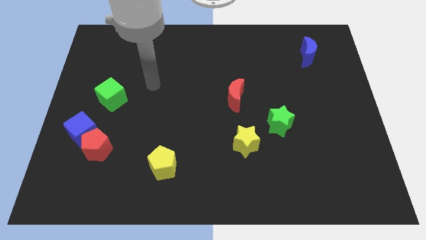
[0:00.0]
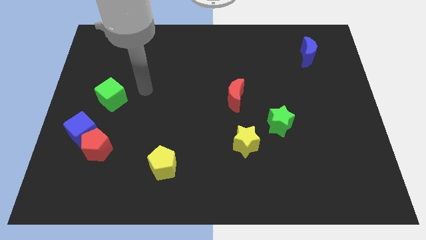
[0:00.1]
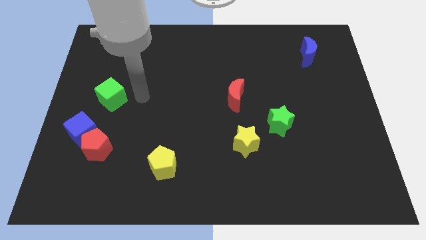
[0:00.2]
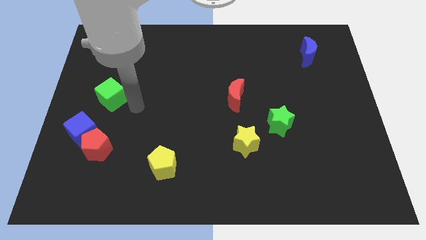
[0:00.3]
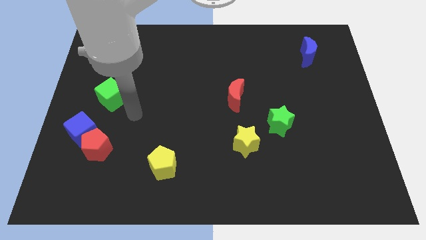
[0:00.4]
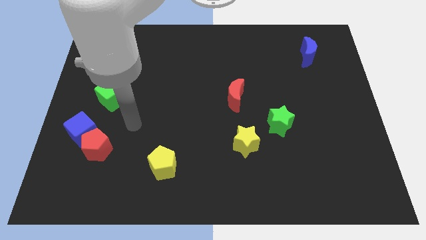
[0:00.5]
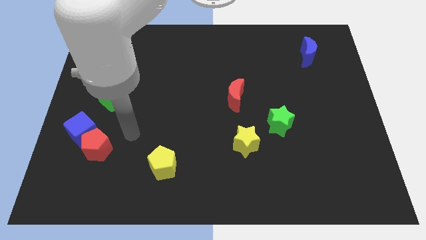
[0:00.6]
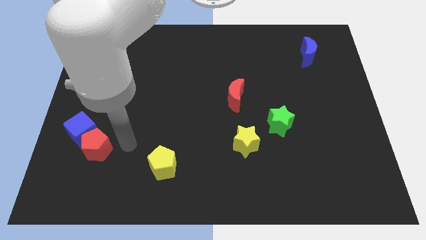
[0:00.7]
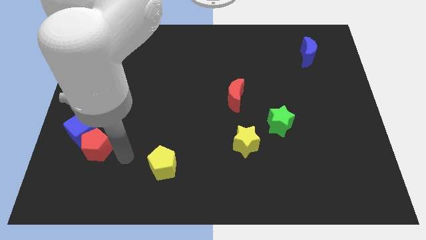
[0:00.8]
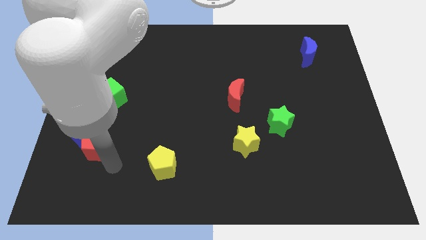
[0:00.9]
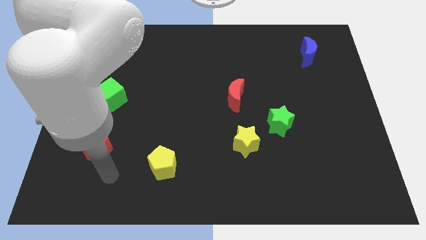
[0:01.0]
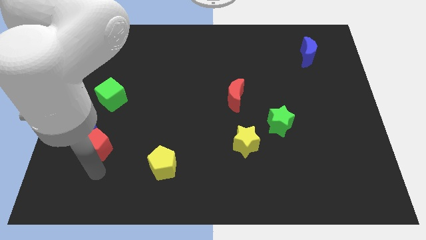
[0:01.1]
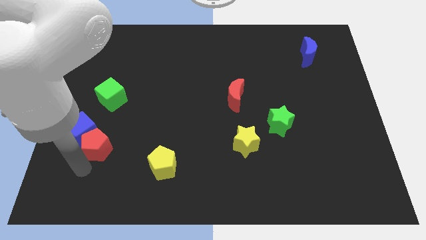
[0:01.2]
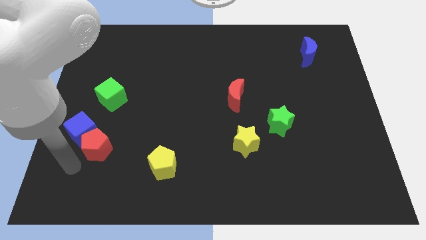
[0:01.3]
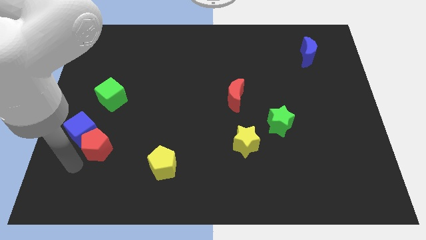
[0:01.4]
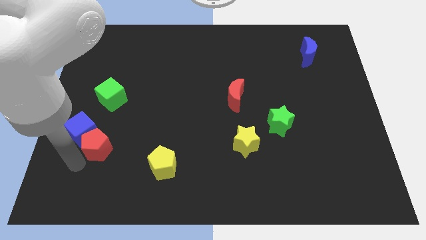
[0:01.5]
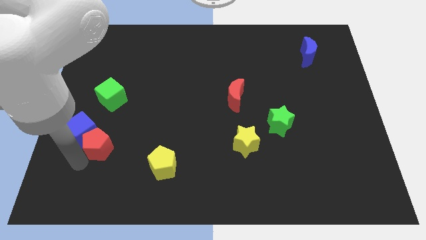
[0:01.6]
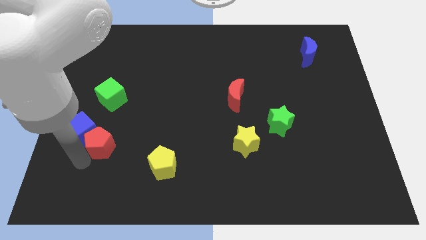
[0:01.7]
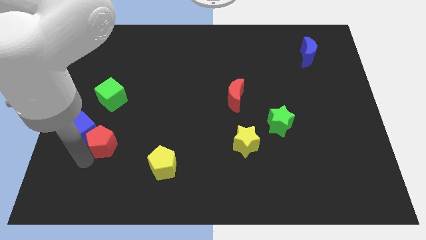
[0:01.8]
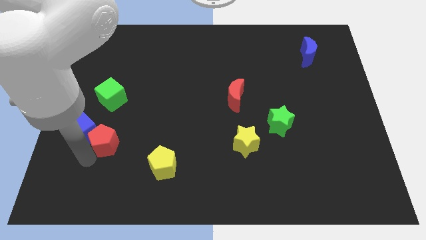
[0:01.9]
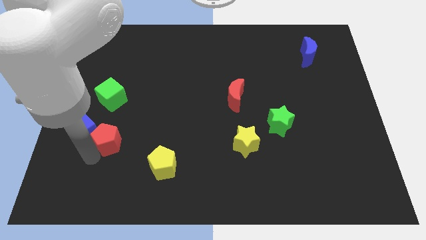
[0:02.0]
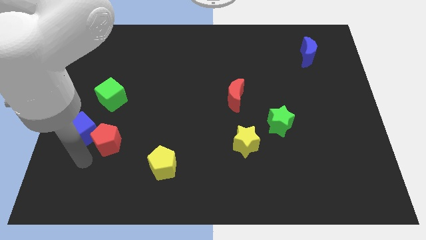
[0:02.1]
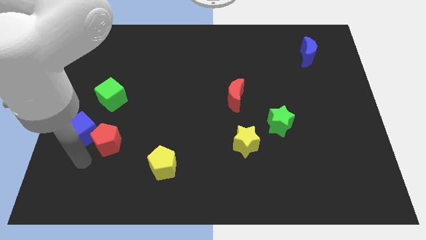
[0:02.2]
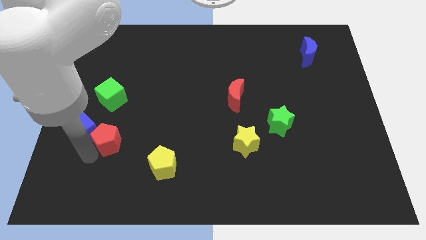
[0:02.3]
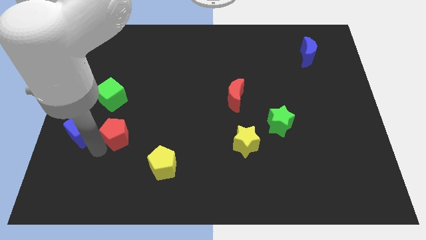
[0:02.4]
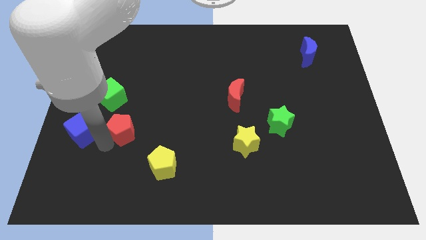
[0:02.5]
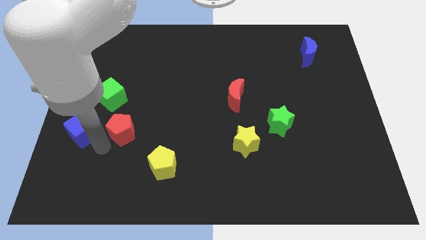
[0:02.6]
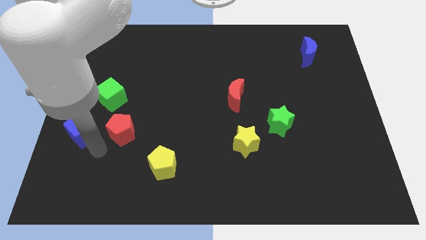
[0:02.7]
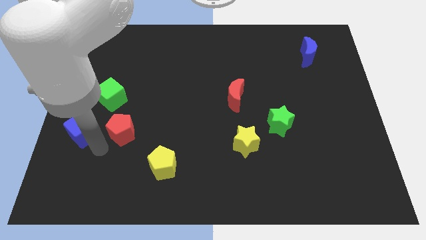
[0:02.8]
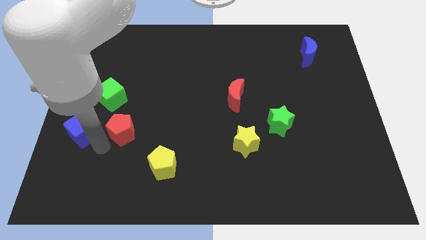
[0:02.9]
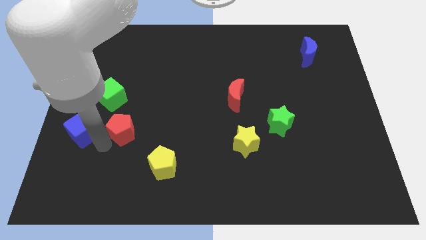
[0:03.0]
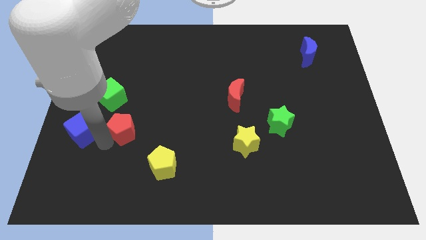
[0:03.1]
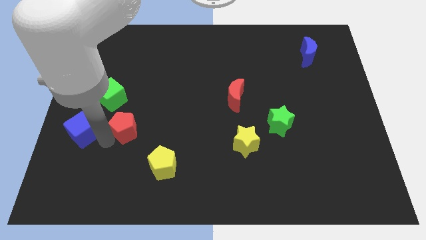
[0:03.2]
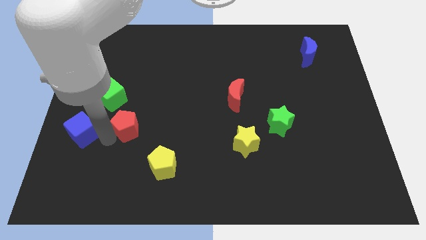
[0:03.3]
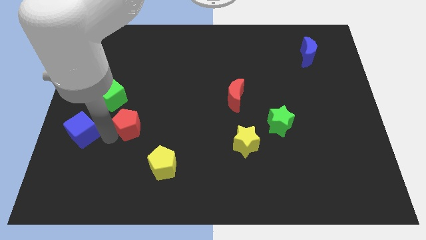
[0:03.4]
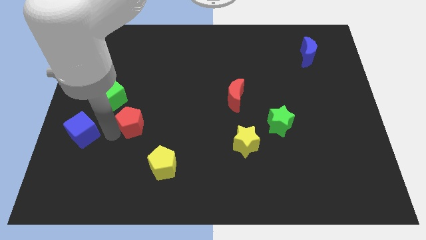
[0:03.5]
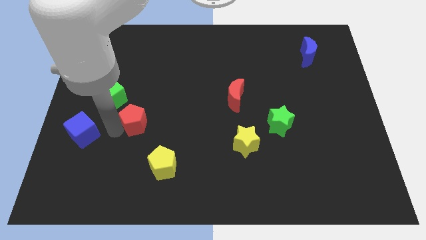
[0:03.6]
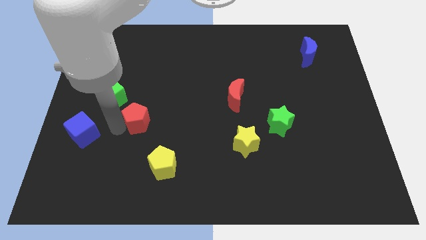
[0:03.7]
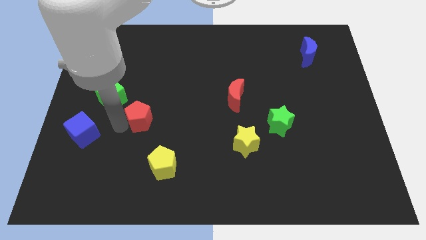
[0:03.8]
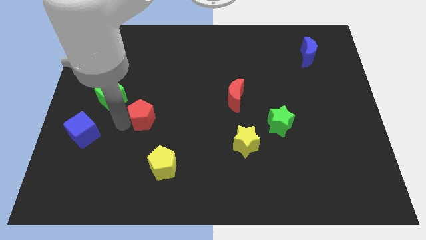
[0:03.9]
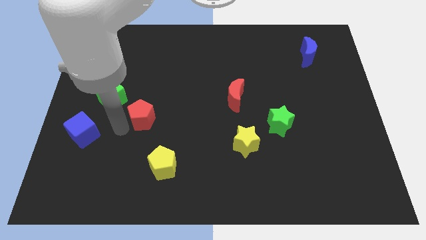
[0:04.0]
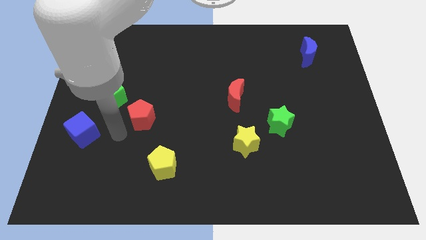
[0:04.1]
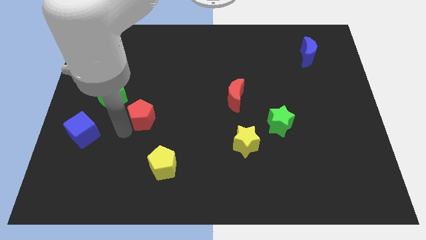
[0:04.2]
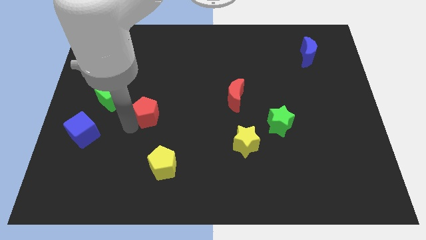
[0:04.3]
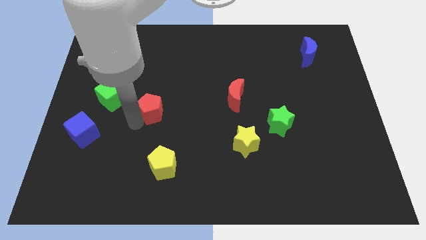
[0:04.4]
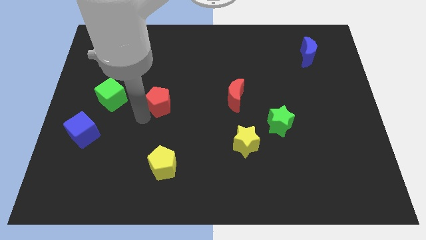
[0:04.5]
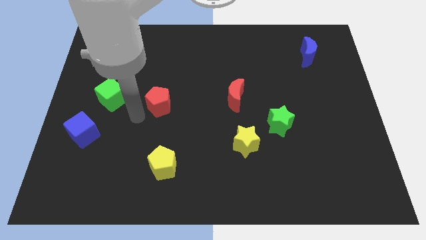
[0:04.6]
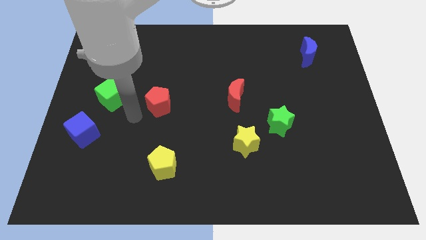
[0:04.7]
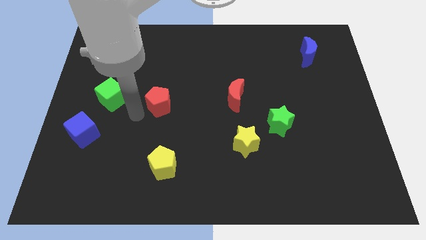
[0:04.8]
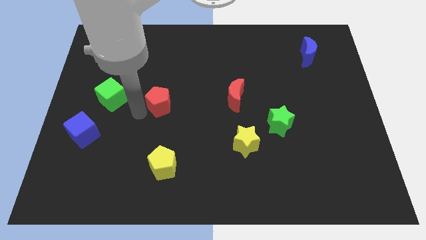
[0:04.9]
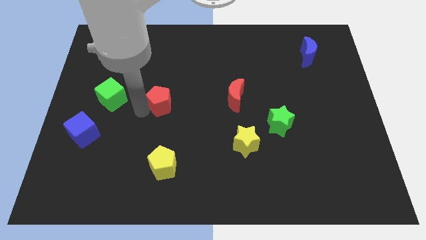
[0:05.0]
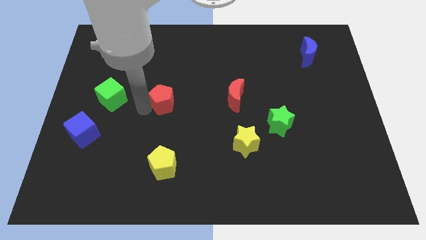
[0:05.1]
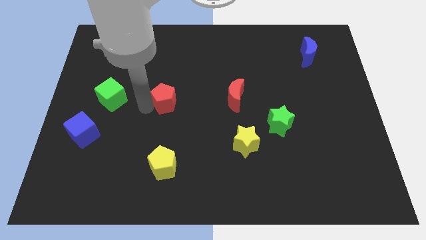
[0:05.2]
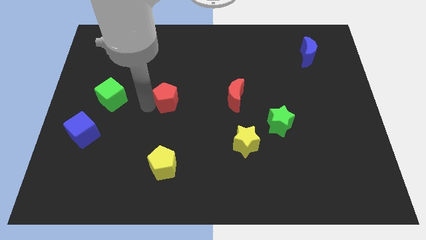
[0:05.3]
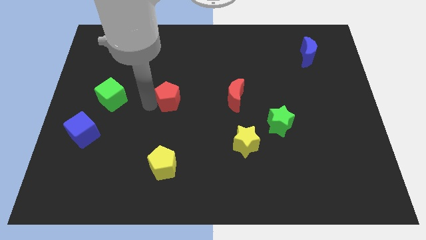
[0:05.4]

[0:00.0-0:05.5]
move the red pentagon up and then to the right

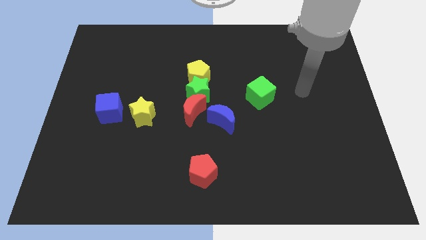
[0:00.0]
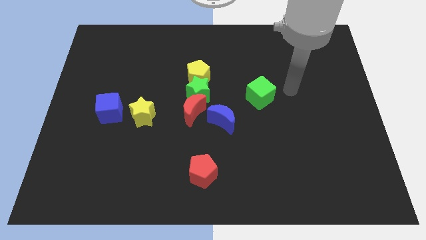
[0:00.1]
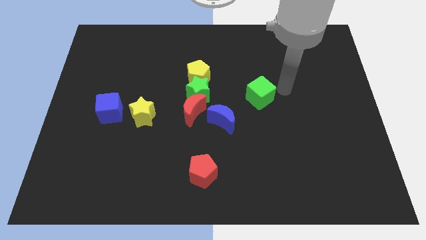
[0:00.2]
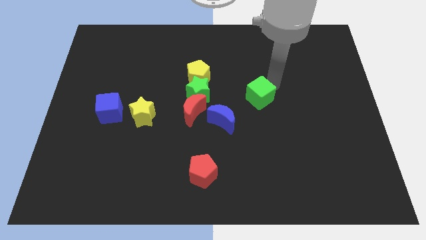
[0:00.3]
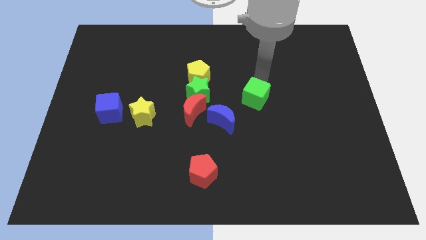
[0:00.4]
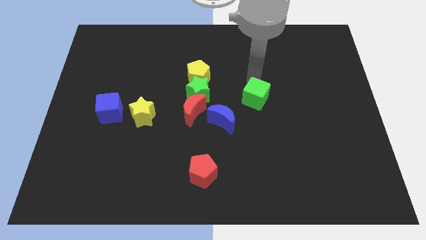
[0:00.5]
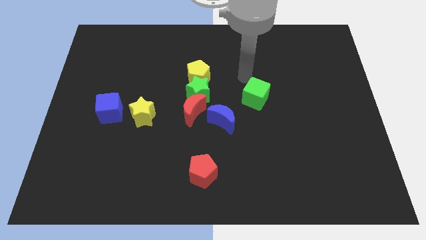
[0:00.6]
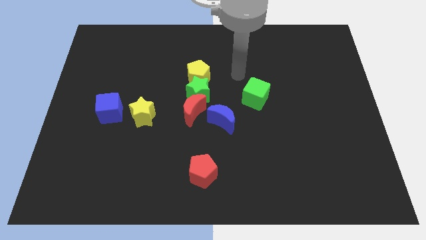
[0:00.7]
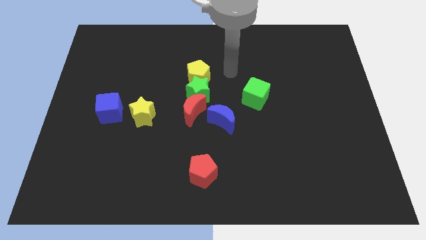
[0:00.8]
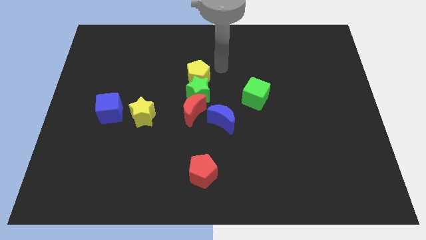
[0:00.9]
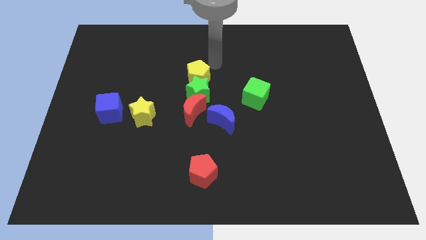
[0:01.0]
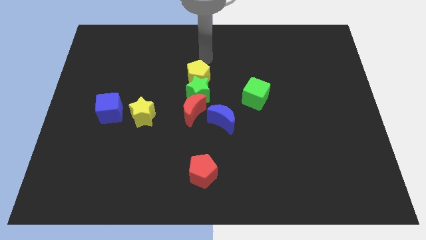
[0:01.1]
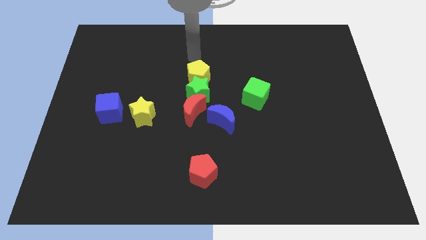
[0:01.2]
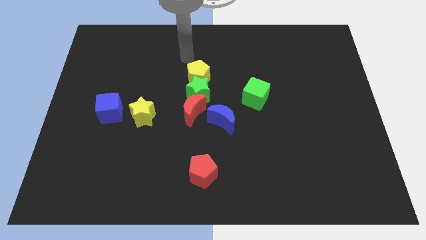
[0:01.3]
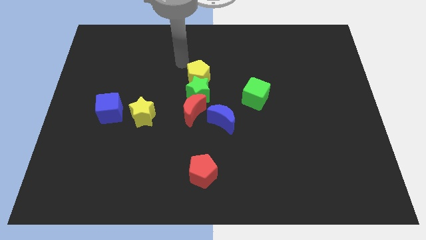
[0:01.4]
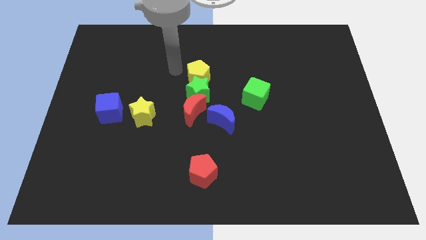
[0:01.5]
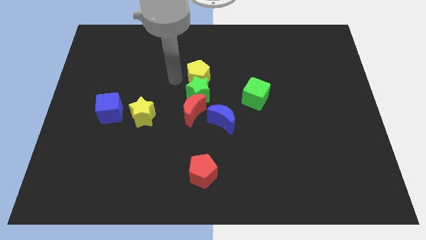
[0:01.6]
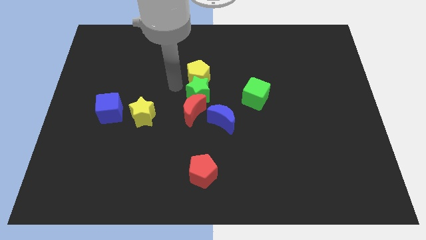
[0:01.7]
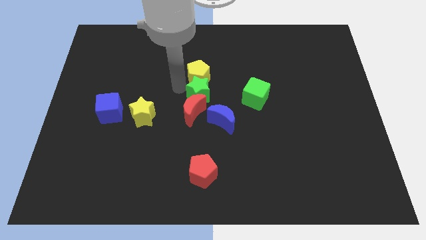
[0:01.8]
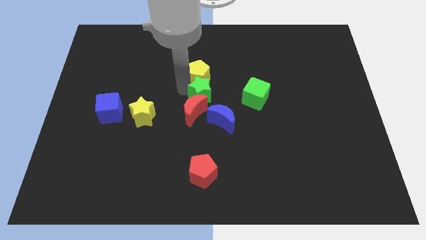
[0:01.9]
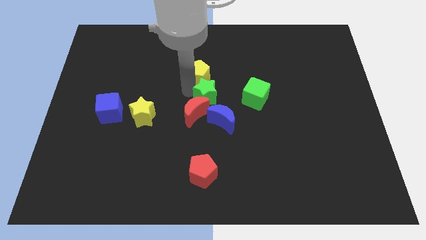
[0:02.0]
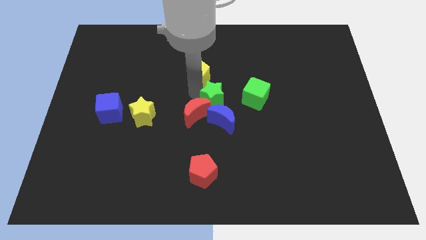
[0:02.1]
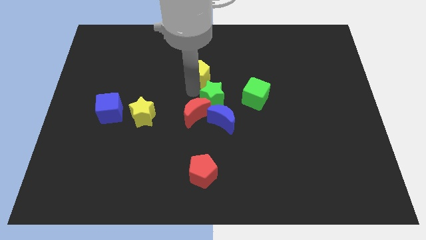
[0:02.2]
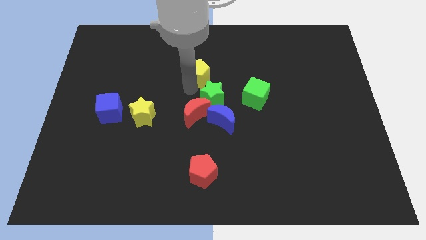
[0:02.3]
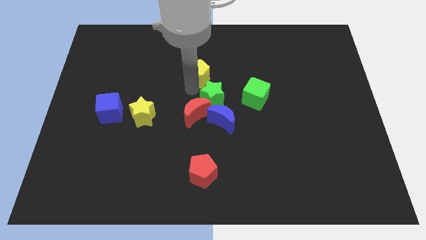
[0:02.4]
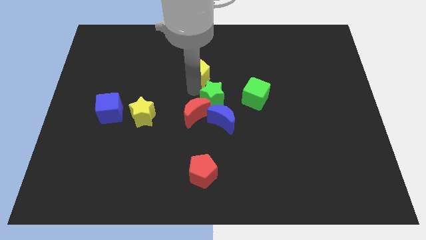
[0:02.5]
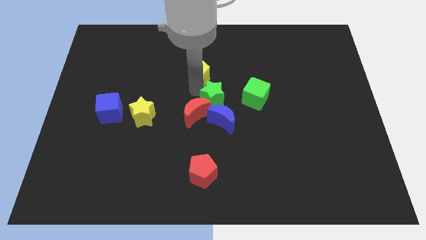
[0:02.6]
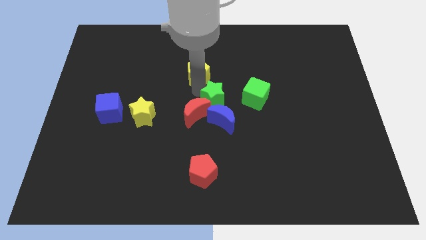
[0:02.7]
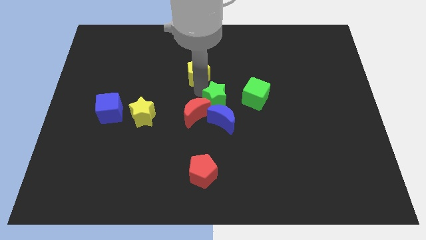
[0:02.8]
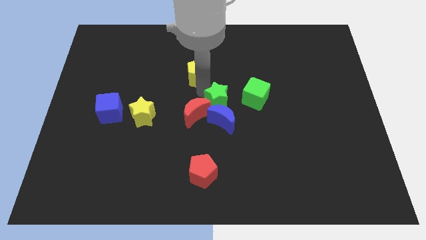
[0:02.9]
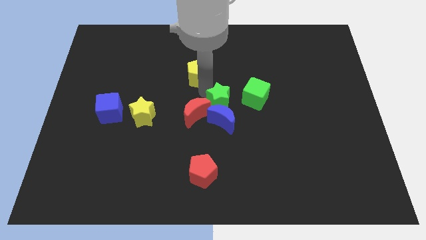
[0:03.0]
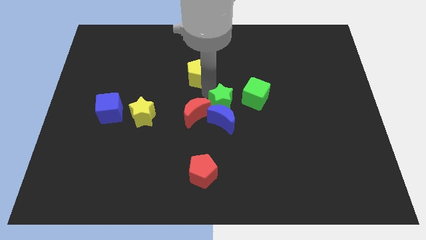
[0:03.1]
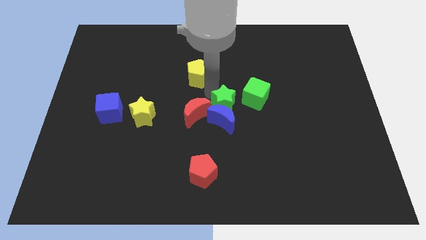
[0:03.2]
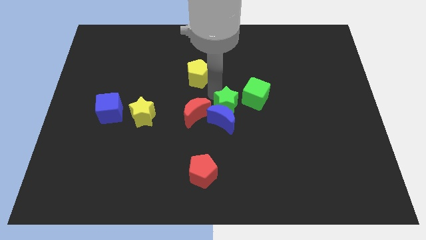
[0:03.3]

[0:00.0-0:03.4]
push the green star a little diagonally down and to the right
